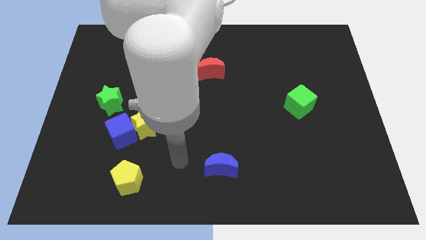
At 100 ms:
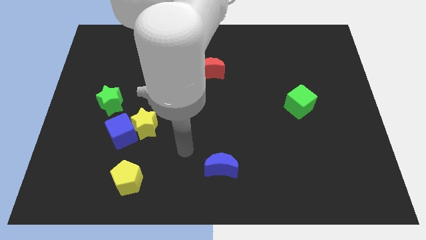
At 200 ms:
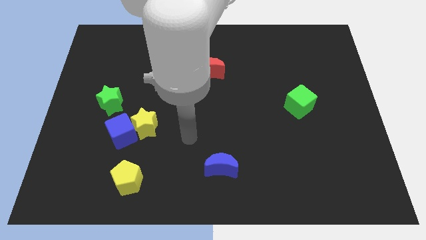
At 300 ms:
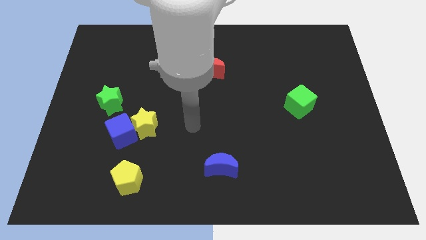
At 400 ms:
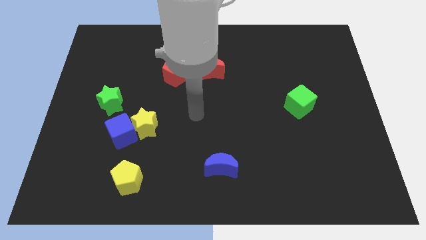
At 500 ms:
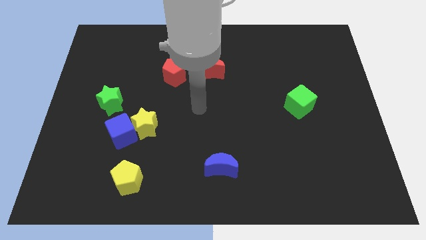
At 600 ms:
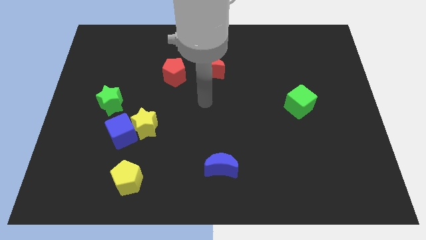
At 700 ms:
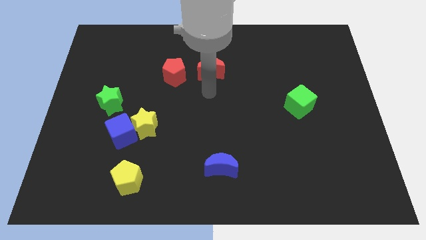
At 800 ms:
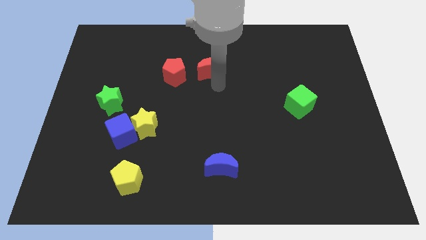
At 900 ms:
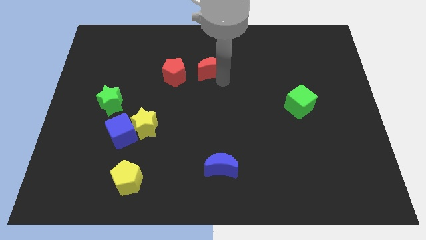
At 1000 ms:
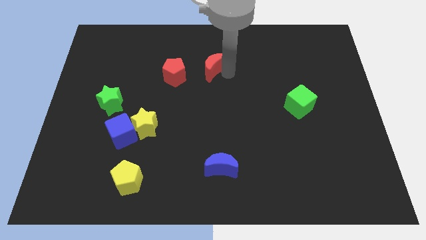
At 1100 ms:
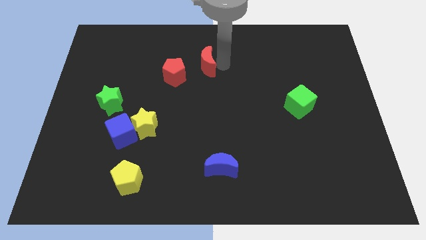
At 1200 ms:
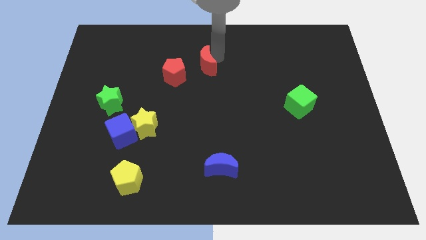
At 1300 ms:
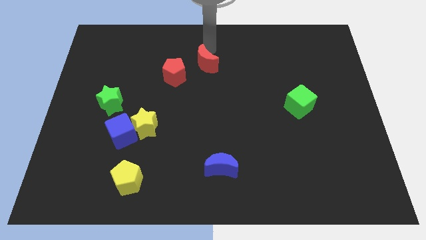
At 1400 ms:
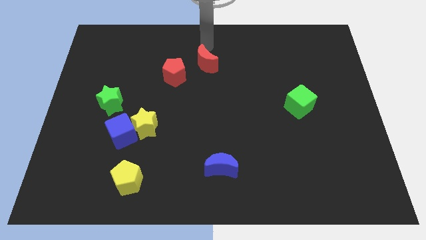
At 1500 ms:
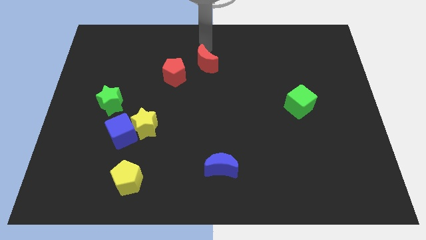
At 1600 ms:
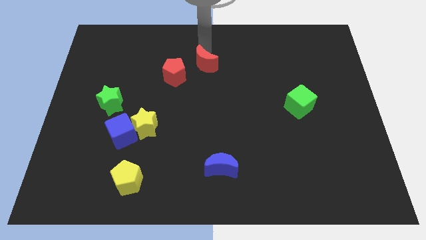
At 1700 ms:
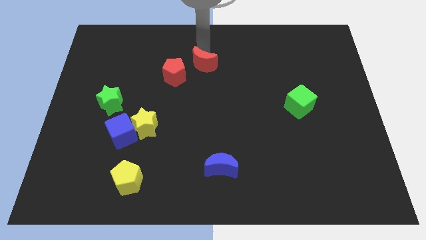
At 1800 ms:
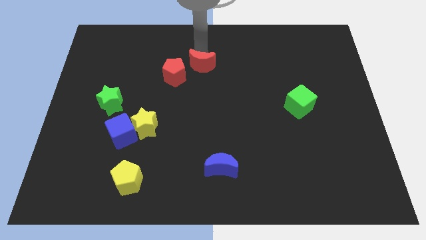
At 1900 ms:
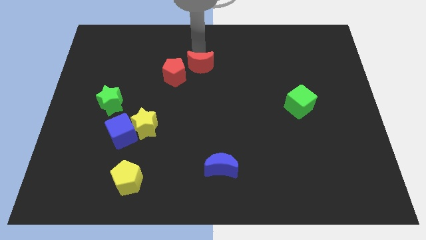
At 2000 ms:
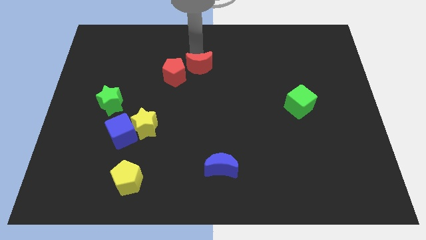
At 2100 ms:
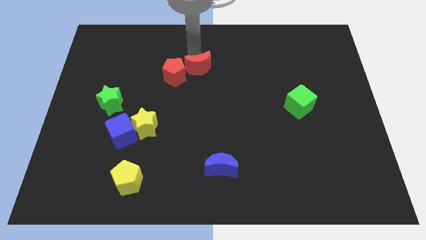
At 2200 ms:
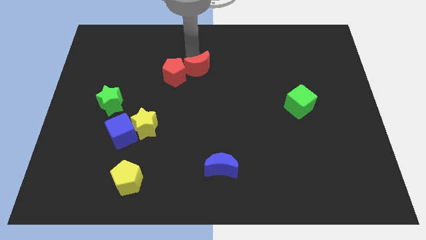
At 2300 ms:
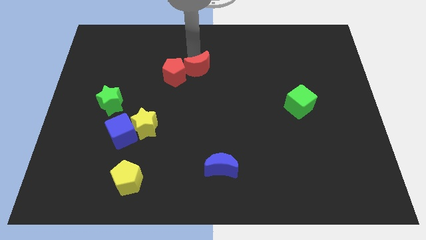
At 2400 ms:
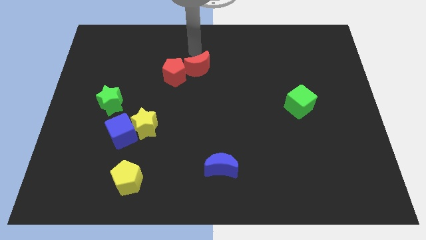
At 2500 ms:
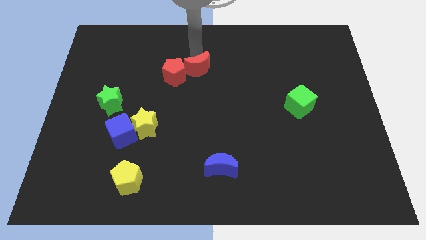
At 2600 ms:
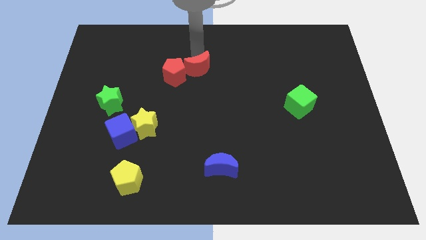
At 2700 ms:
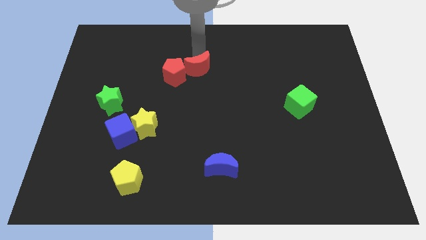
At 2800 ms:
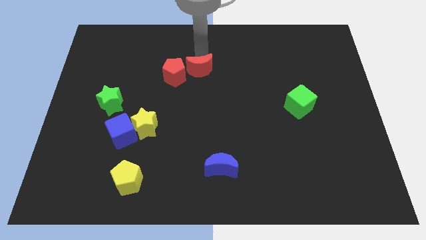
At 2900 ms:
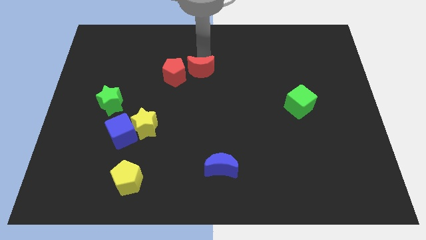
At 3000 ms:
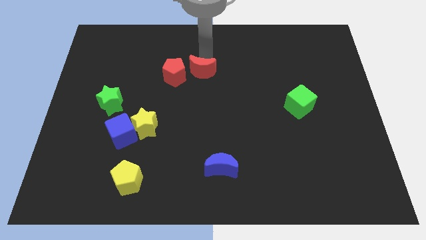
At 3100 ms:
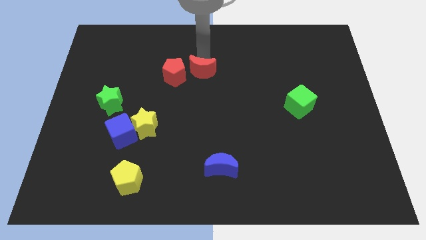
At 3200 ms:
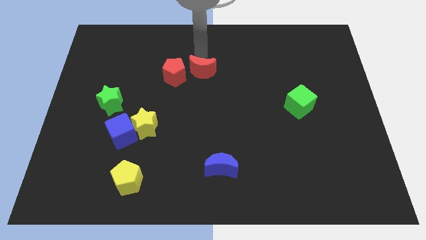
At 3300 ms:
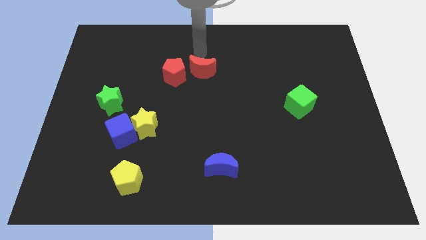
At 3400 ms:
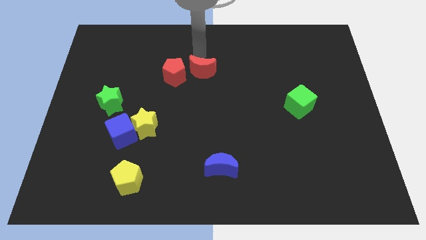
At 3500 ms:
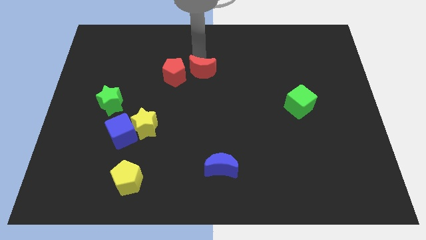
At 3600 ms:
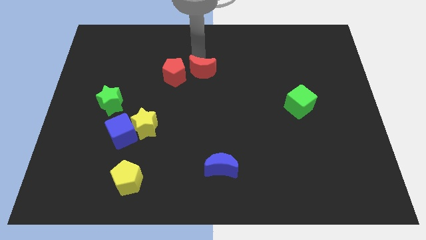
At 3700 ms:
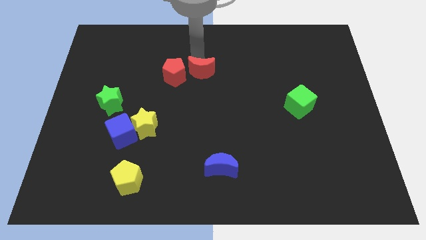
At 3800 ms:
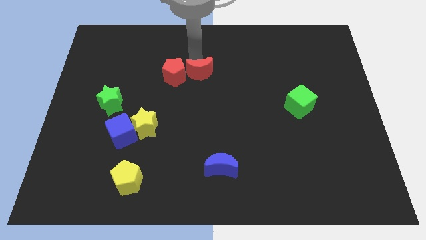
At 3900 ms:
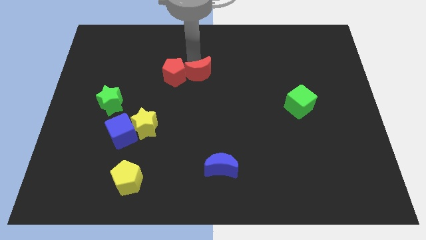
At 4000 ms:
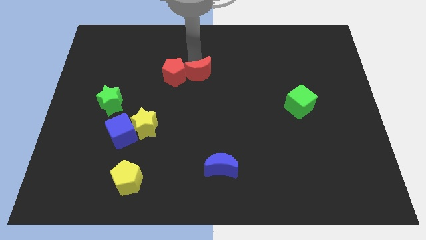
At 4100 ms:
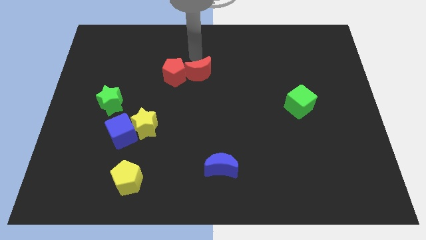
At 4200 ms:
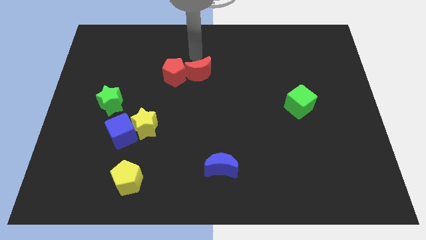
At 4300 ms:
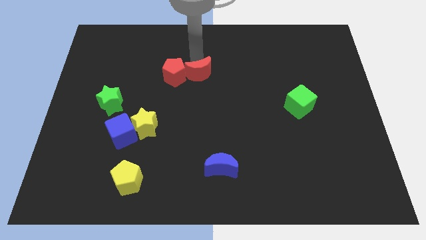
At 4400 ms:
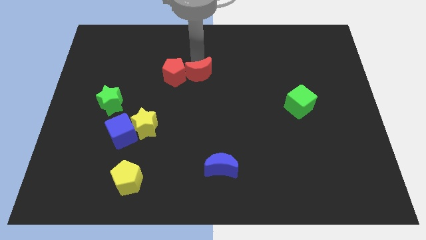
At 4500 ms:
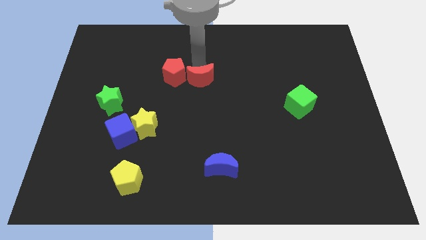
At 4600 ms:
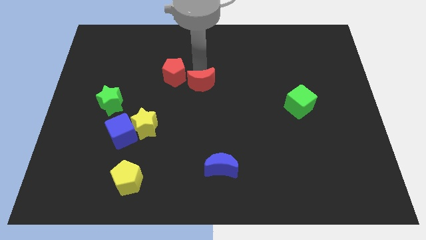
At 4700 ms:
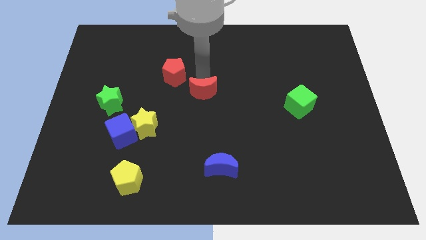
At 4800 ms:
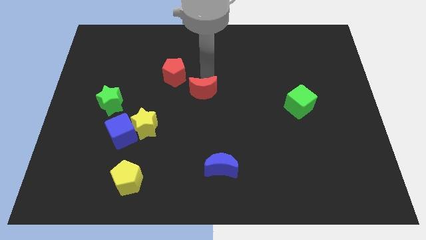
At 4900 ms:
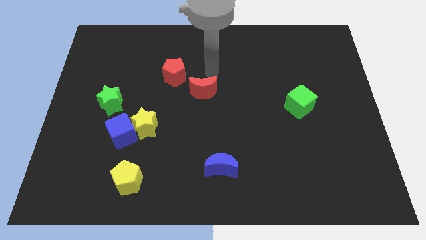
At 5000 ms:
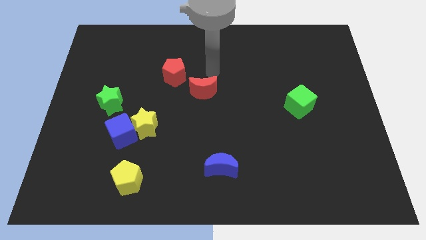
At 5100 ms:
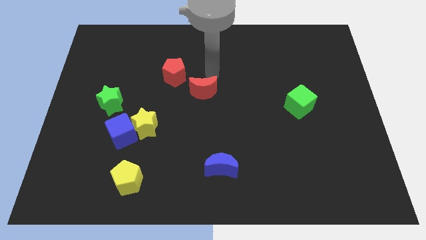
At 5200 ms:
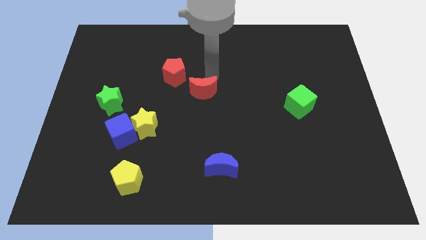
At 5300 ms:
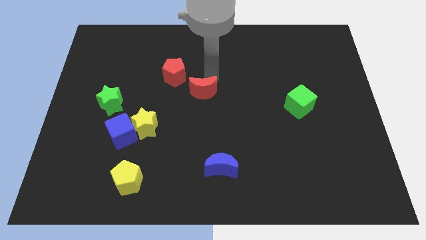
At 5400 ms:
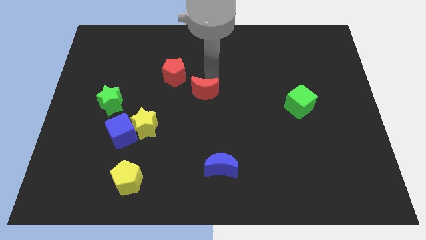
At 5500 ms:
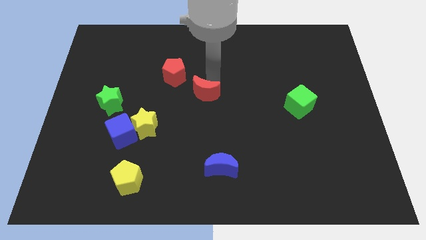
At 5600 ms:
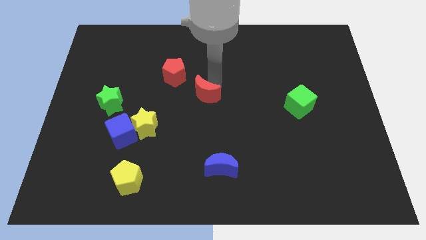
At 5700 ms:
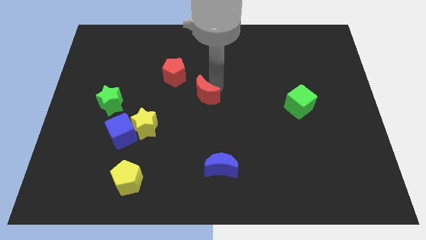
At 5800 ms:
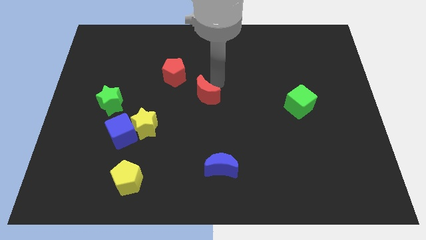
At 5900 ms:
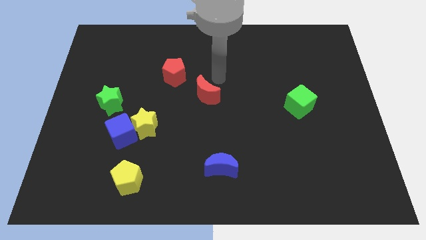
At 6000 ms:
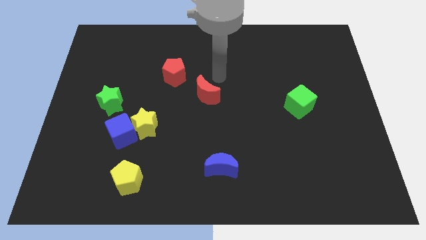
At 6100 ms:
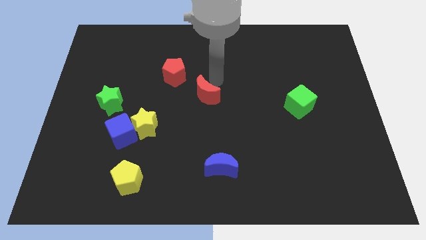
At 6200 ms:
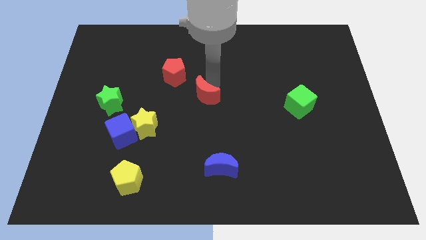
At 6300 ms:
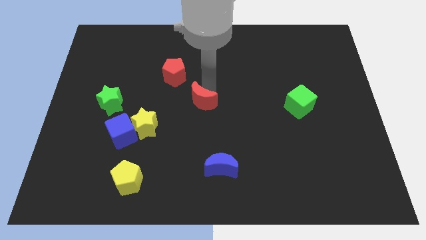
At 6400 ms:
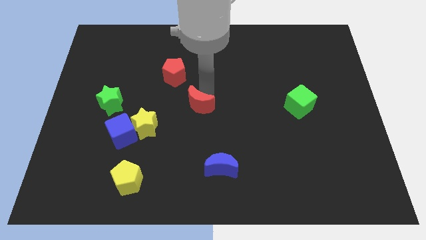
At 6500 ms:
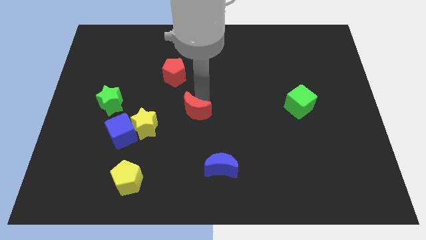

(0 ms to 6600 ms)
push the red moon right of the yellow star

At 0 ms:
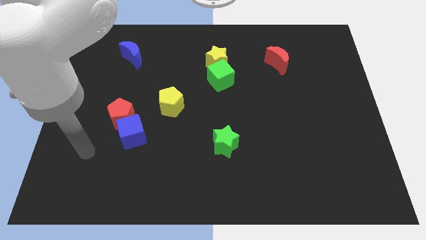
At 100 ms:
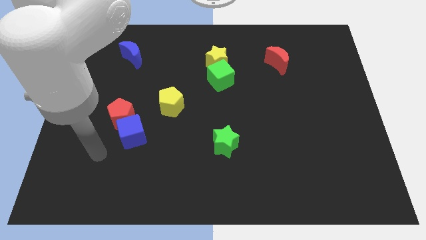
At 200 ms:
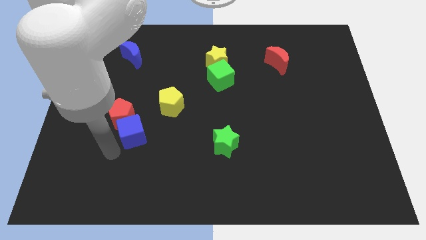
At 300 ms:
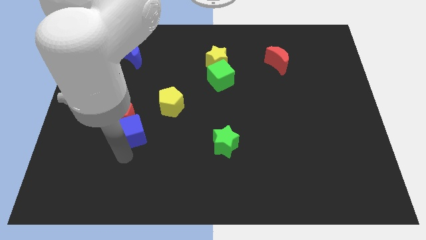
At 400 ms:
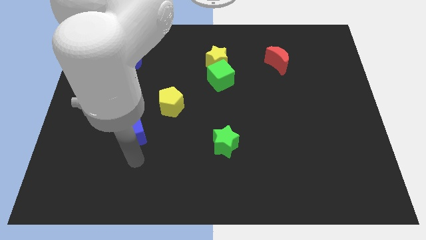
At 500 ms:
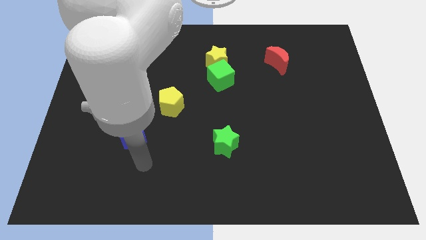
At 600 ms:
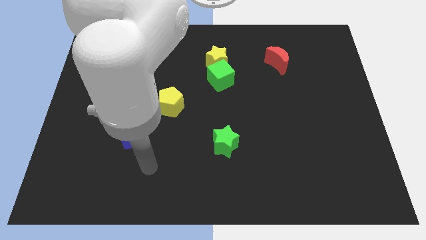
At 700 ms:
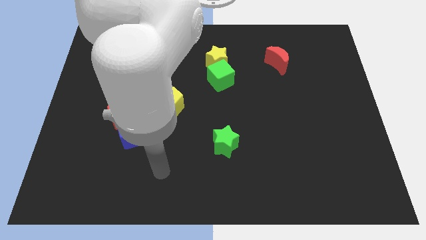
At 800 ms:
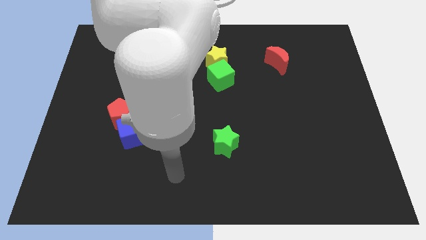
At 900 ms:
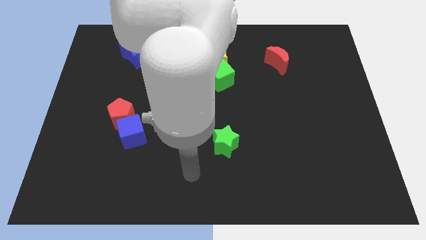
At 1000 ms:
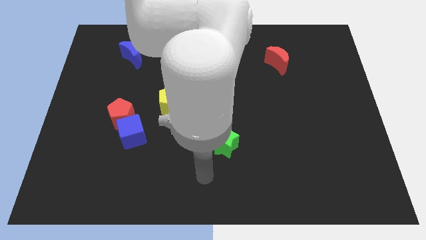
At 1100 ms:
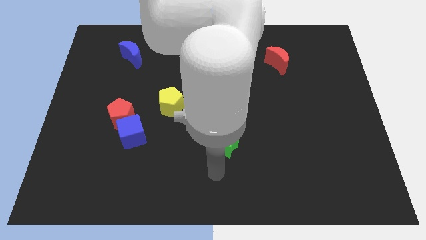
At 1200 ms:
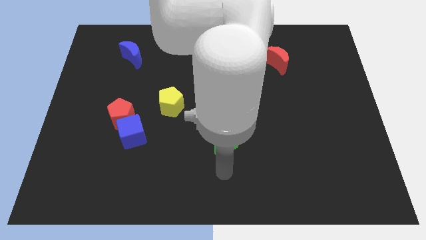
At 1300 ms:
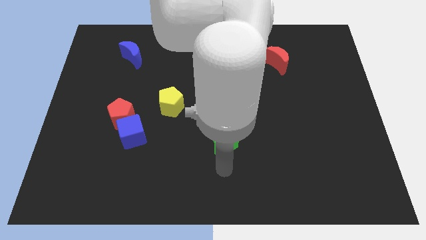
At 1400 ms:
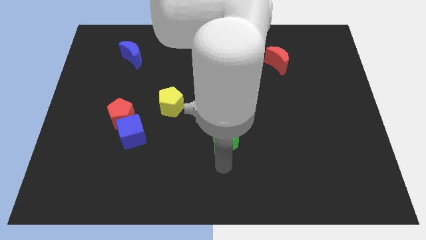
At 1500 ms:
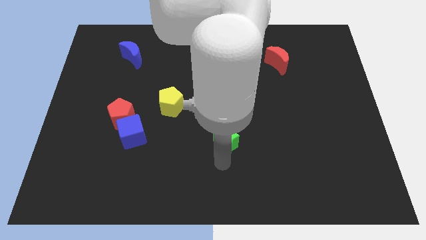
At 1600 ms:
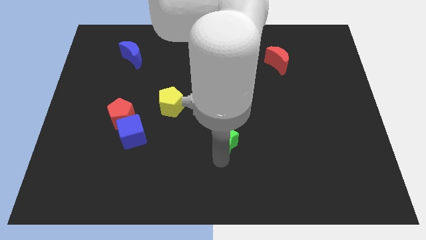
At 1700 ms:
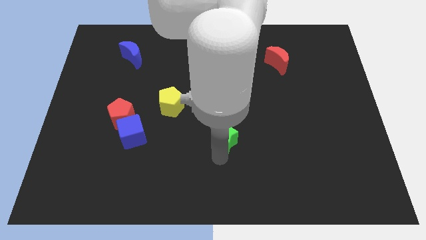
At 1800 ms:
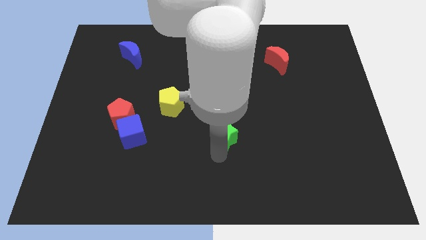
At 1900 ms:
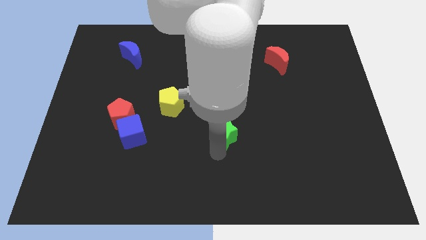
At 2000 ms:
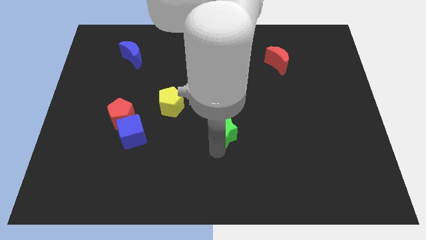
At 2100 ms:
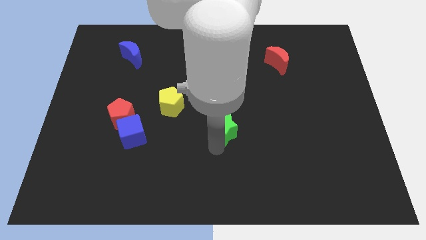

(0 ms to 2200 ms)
move the green star below the green cube
